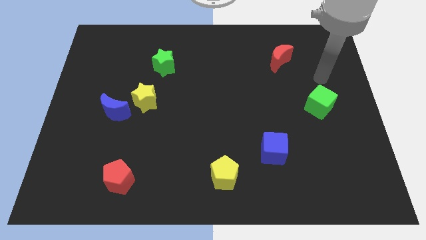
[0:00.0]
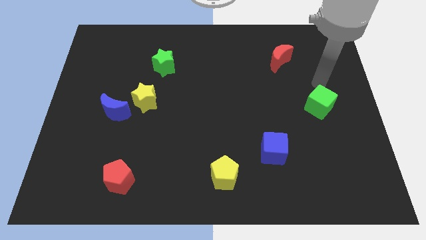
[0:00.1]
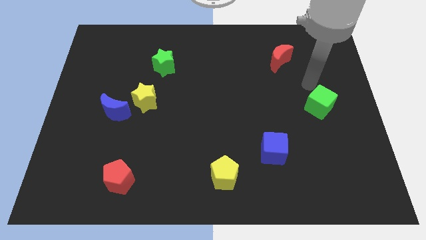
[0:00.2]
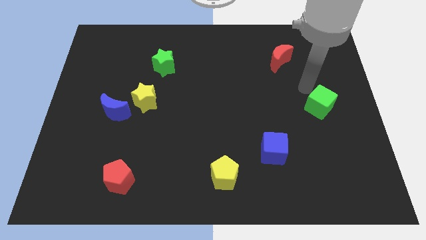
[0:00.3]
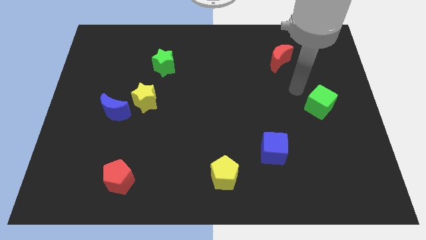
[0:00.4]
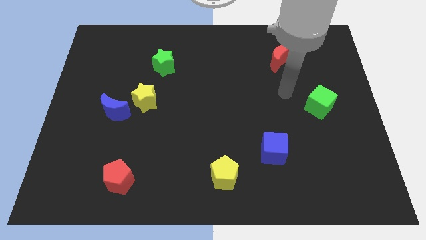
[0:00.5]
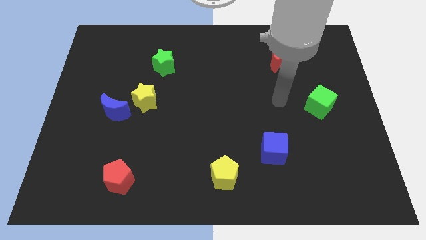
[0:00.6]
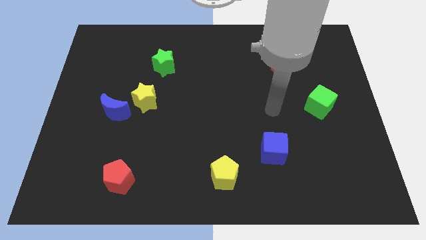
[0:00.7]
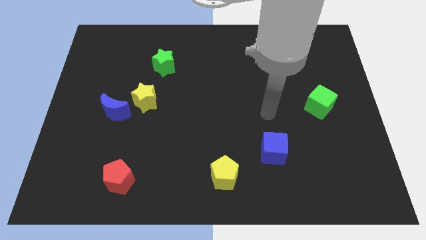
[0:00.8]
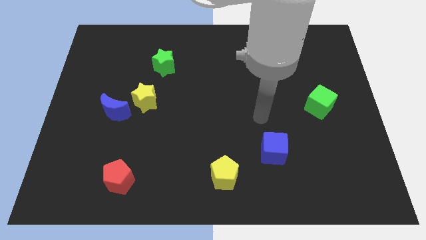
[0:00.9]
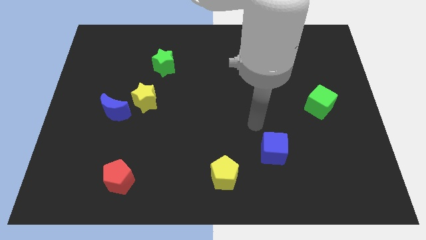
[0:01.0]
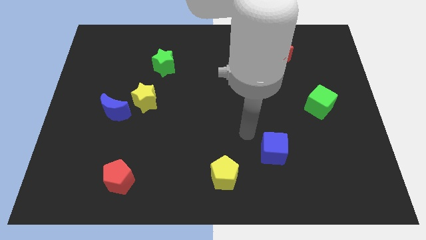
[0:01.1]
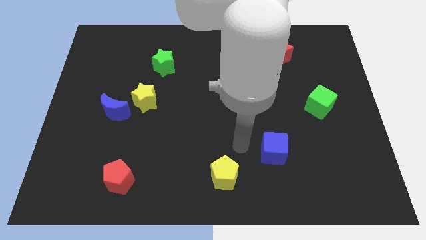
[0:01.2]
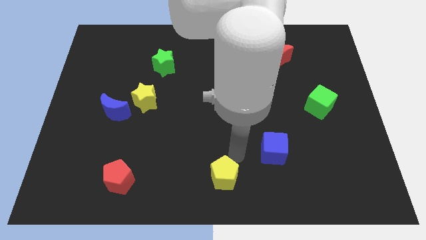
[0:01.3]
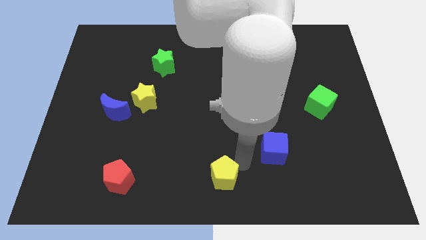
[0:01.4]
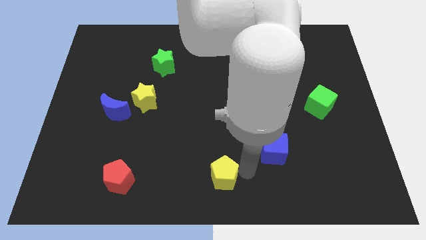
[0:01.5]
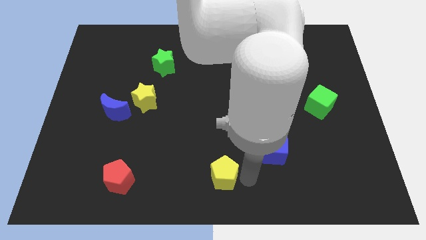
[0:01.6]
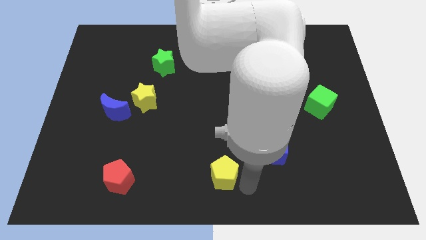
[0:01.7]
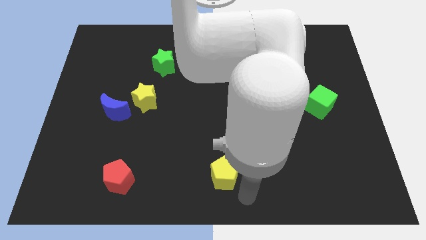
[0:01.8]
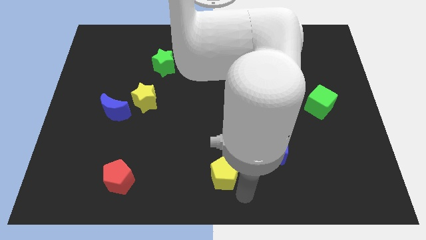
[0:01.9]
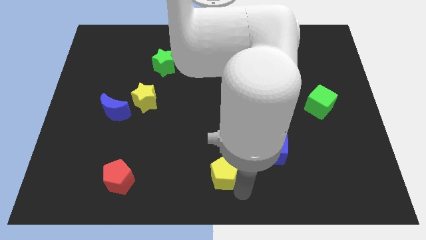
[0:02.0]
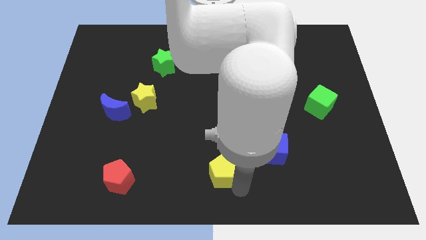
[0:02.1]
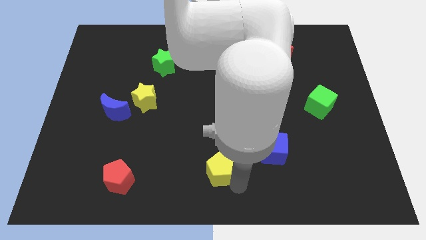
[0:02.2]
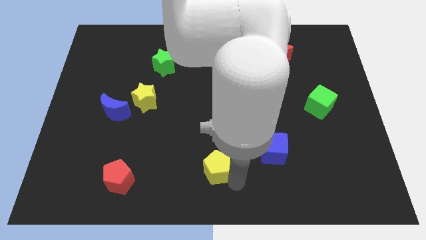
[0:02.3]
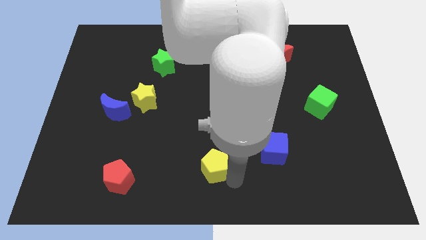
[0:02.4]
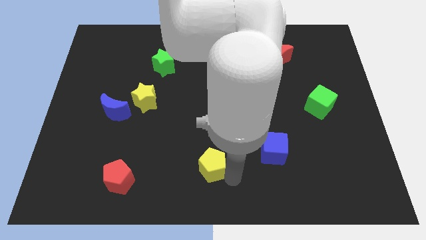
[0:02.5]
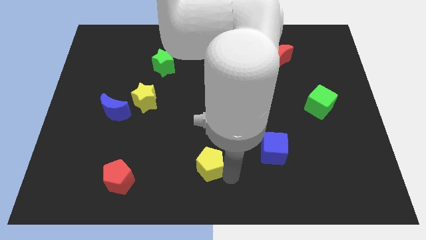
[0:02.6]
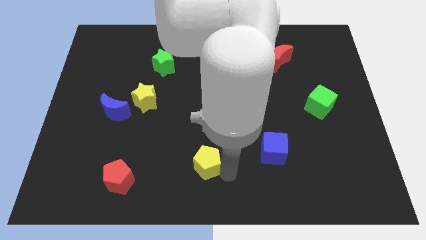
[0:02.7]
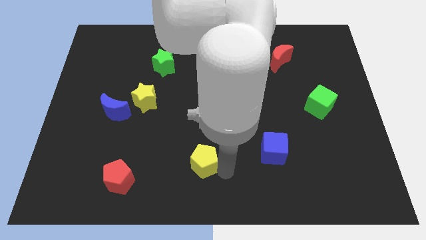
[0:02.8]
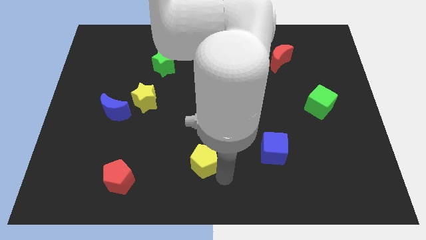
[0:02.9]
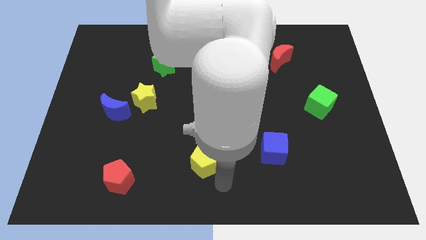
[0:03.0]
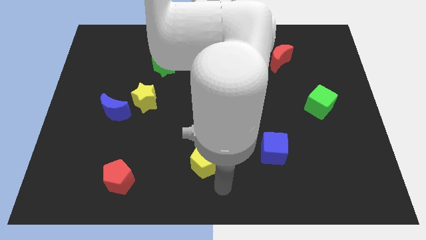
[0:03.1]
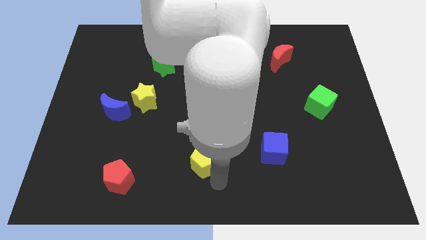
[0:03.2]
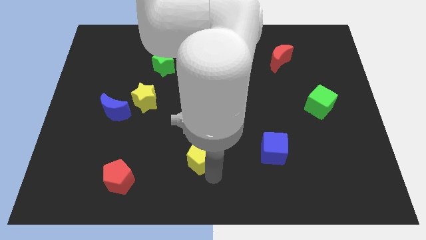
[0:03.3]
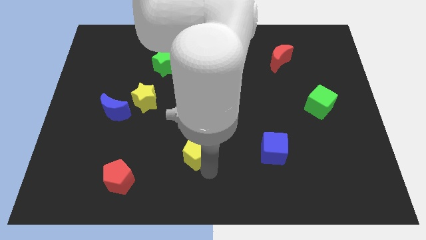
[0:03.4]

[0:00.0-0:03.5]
slide the yellow pentagon a bit upwards and then to the left

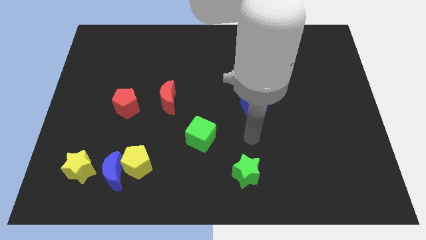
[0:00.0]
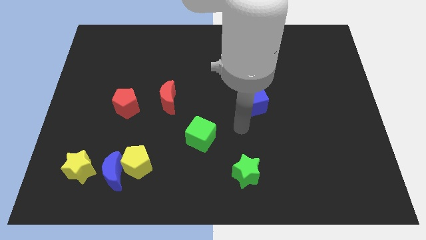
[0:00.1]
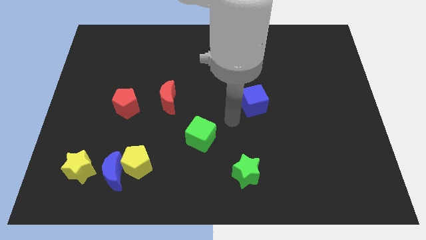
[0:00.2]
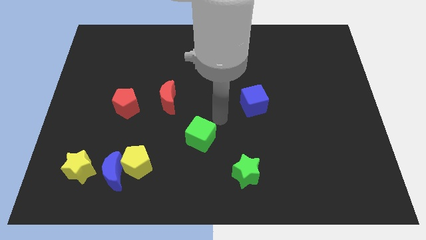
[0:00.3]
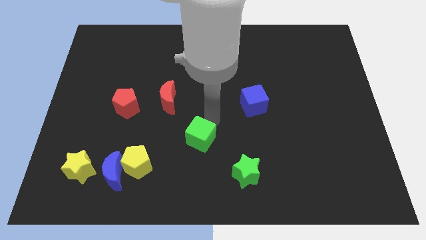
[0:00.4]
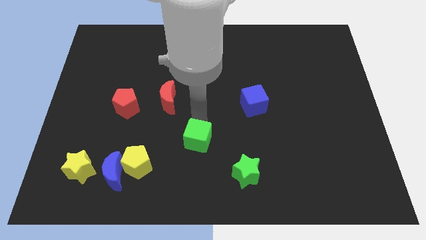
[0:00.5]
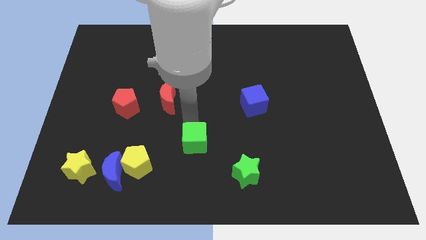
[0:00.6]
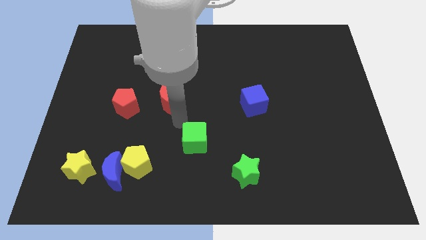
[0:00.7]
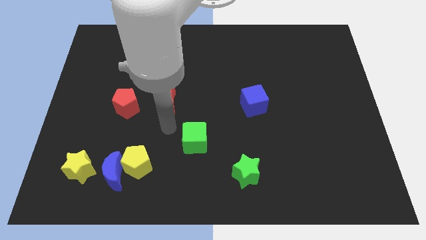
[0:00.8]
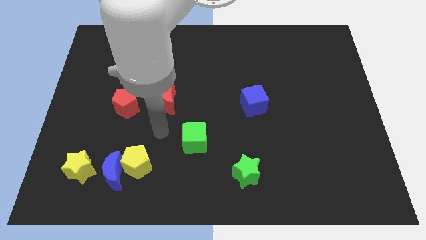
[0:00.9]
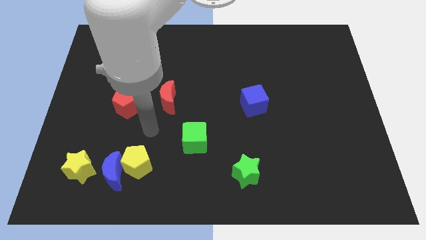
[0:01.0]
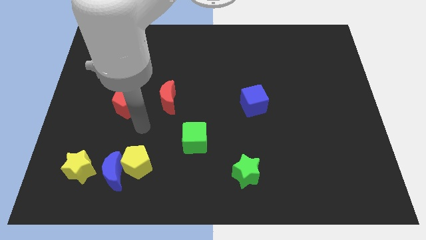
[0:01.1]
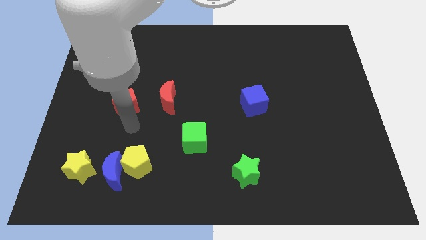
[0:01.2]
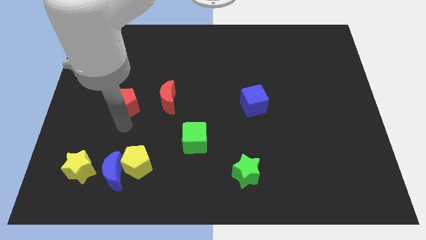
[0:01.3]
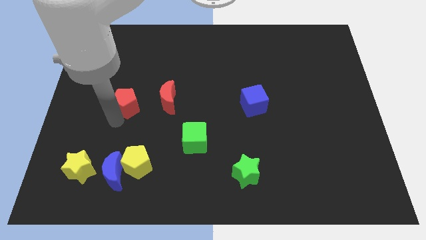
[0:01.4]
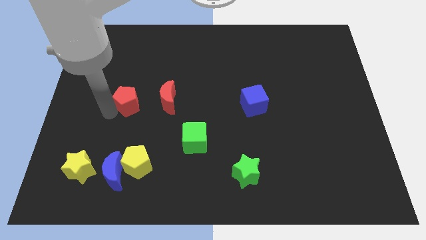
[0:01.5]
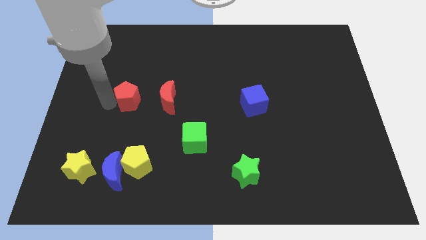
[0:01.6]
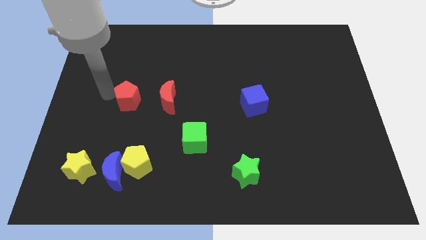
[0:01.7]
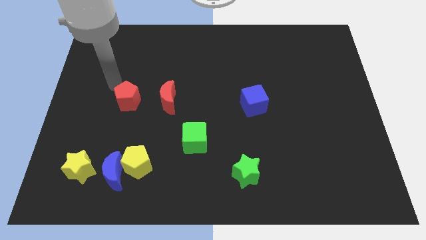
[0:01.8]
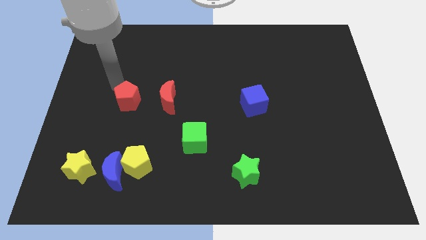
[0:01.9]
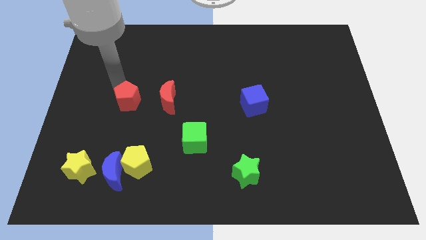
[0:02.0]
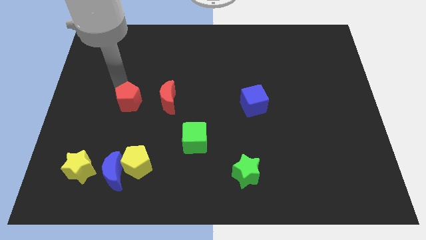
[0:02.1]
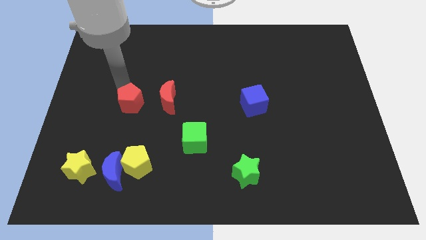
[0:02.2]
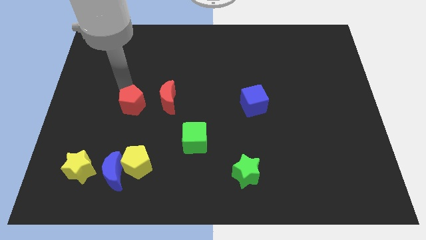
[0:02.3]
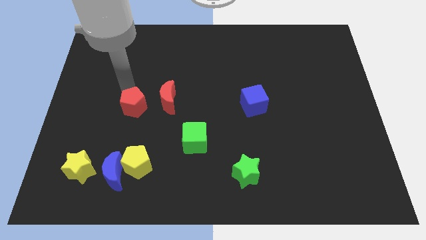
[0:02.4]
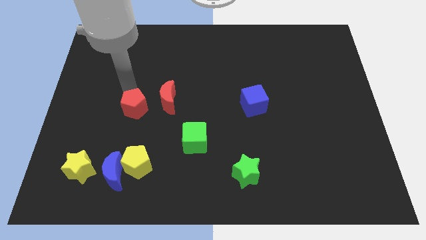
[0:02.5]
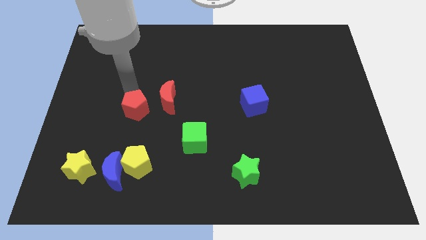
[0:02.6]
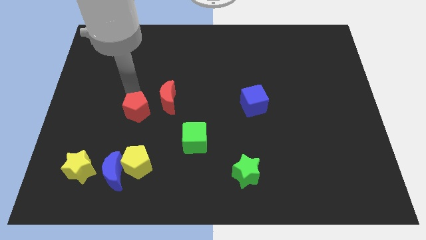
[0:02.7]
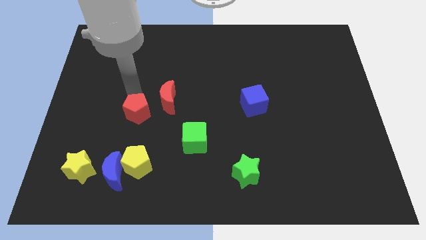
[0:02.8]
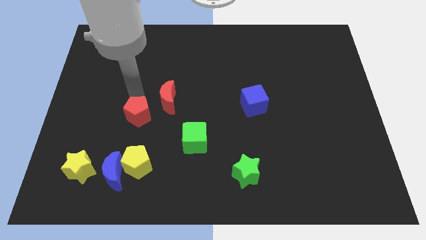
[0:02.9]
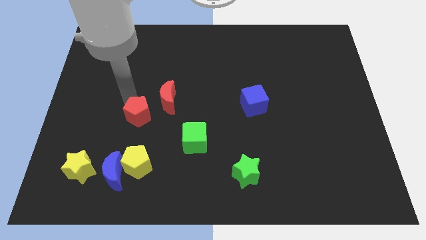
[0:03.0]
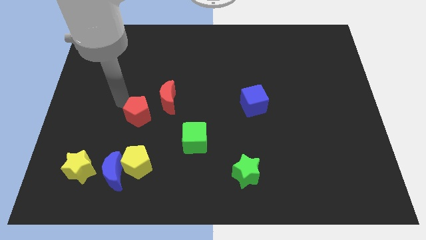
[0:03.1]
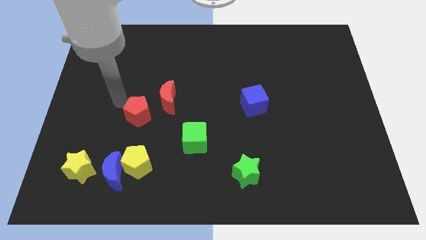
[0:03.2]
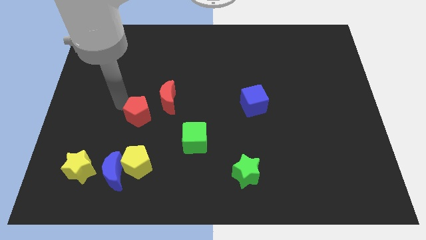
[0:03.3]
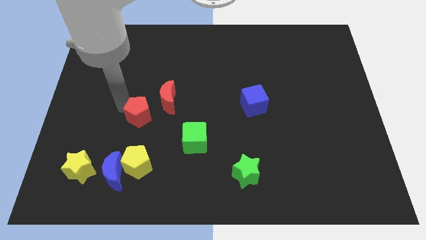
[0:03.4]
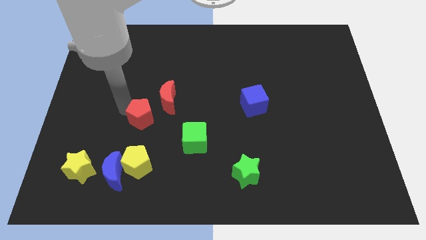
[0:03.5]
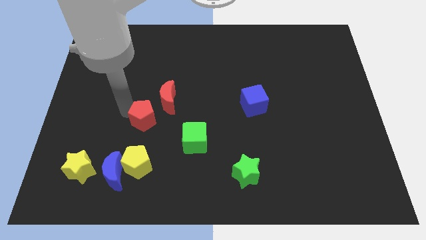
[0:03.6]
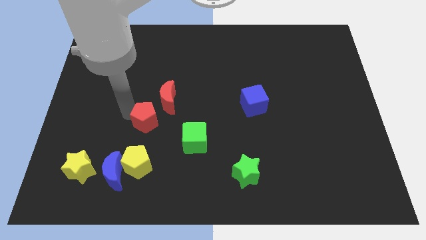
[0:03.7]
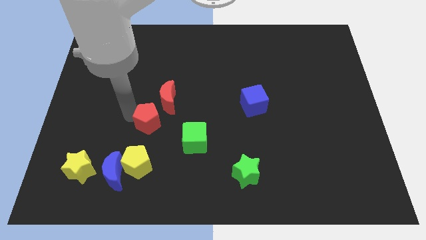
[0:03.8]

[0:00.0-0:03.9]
slightly move the red pentagon down and right diagonally

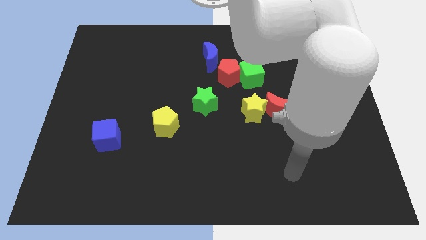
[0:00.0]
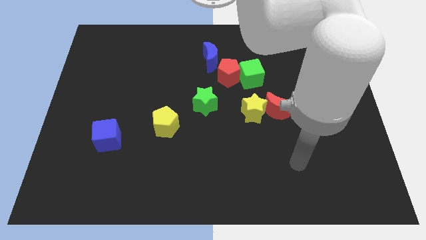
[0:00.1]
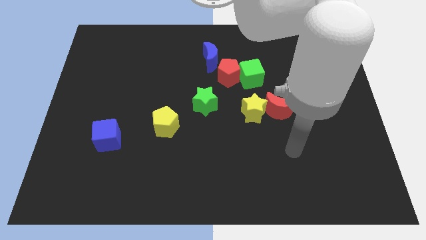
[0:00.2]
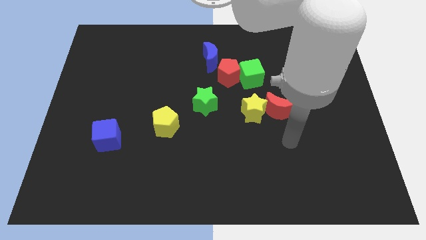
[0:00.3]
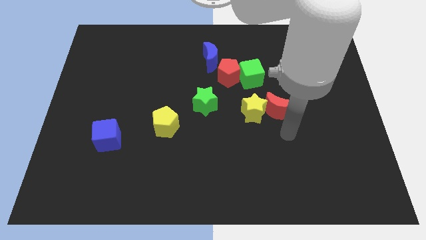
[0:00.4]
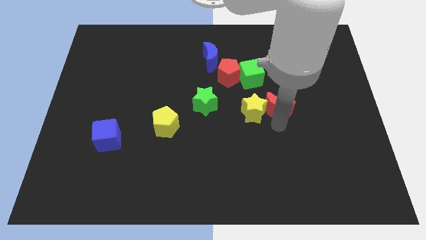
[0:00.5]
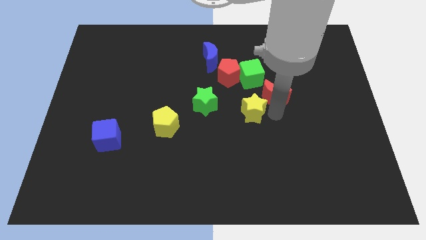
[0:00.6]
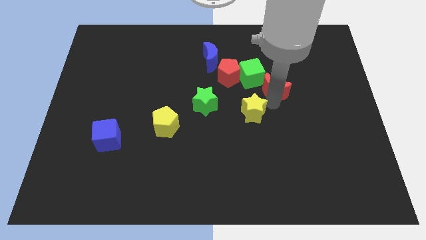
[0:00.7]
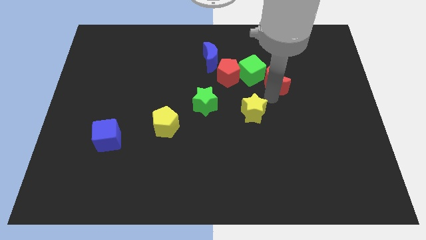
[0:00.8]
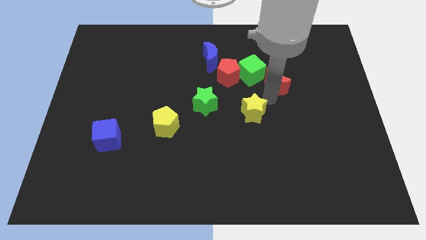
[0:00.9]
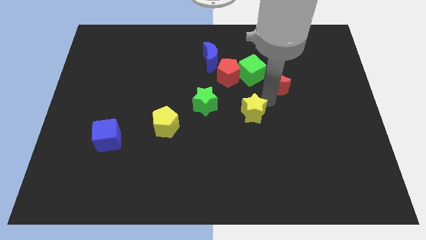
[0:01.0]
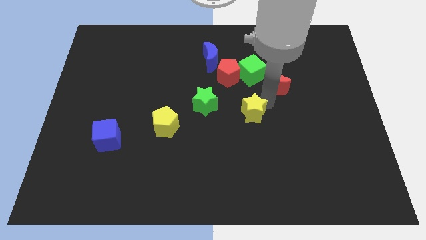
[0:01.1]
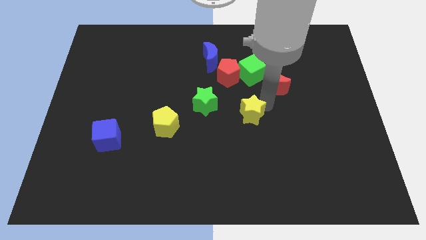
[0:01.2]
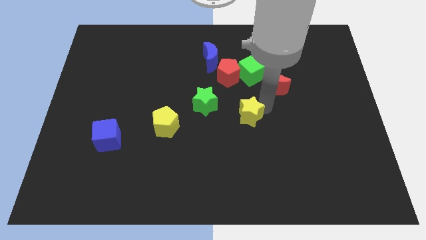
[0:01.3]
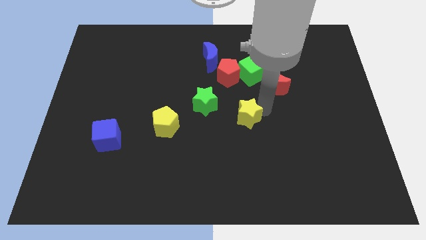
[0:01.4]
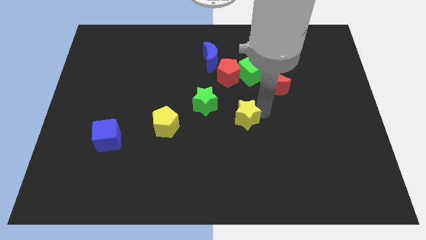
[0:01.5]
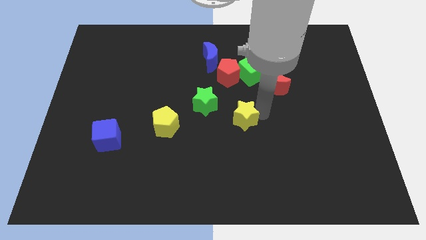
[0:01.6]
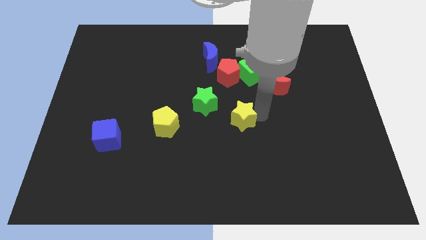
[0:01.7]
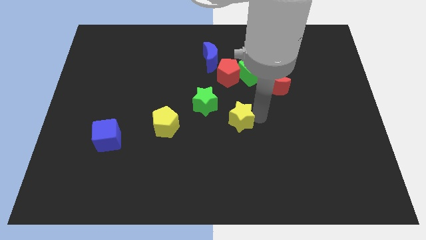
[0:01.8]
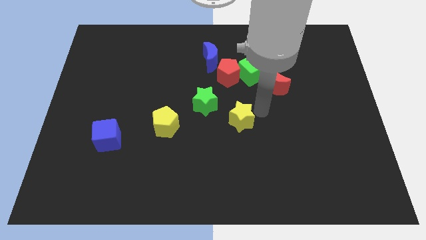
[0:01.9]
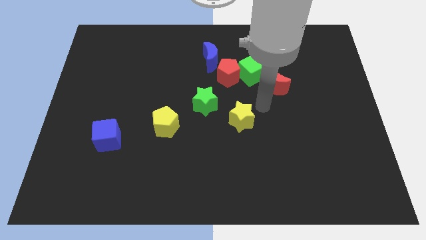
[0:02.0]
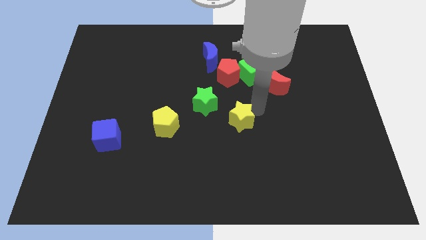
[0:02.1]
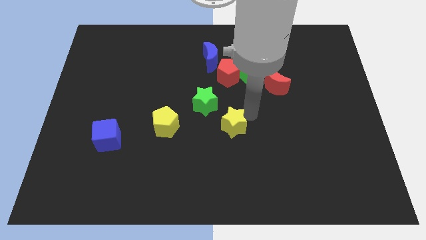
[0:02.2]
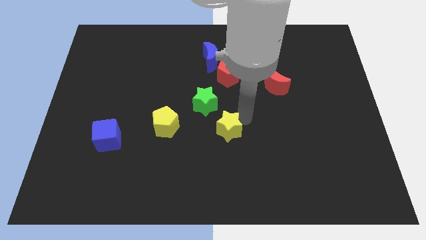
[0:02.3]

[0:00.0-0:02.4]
move the yellow star a little bit diagonally downwards and left
